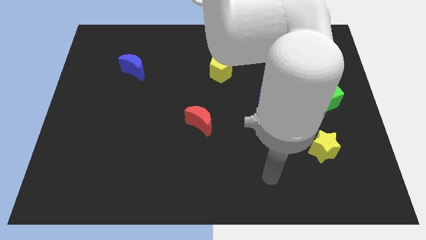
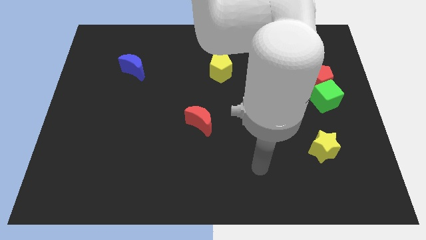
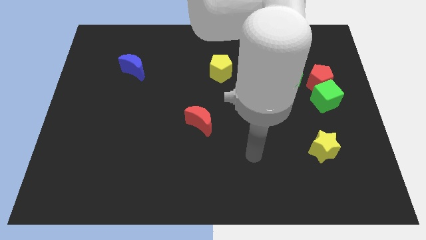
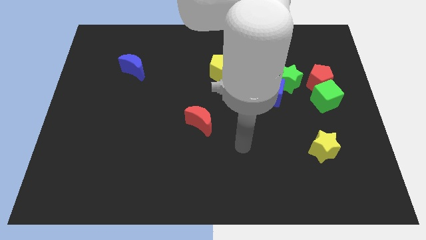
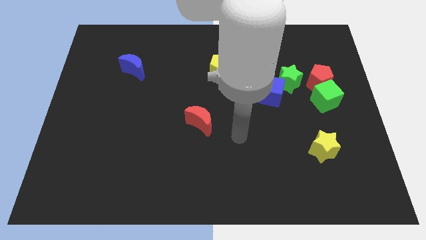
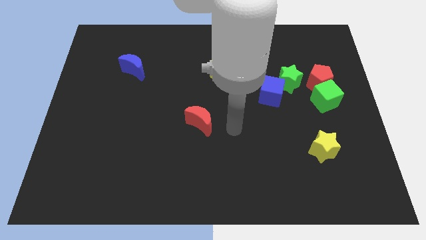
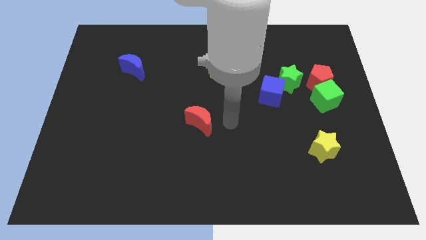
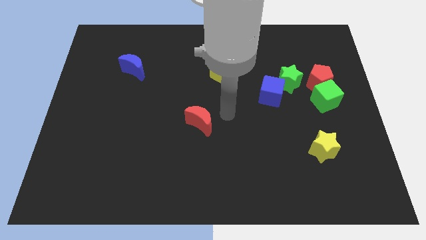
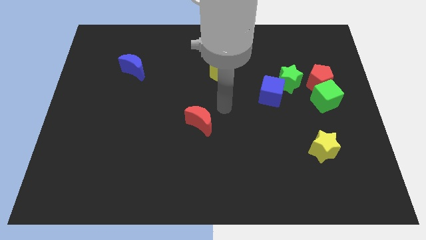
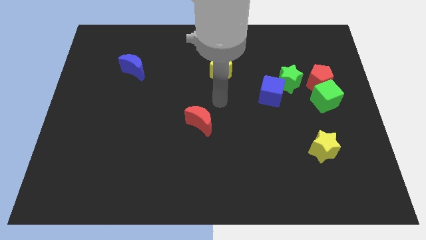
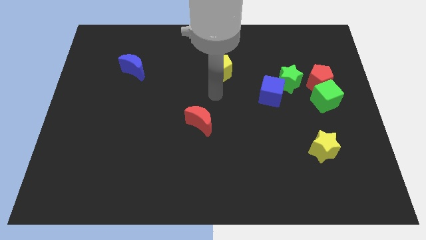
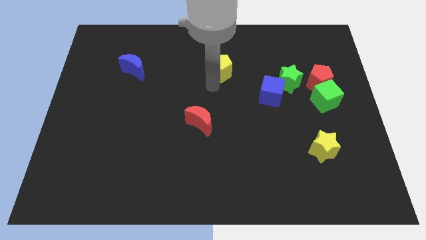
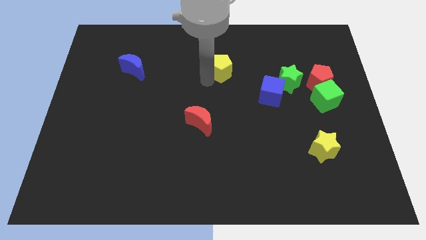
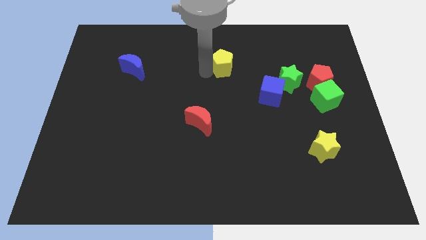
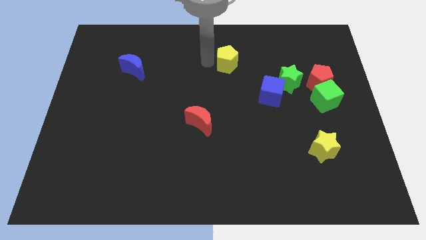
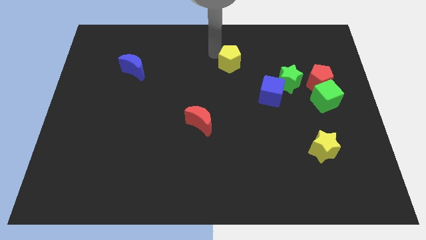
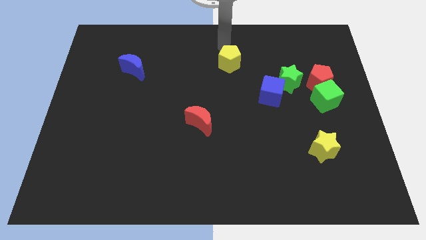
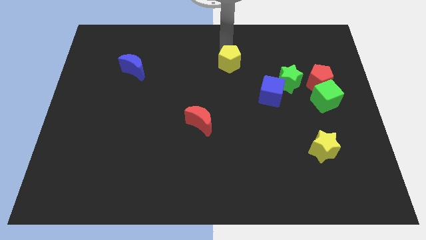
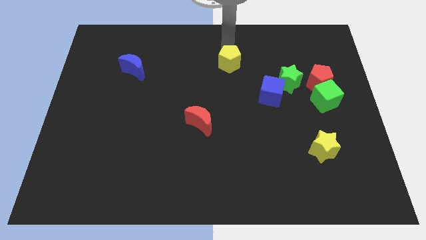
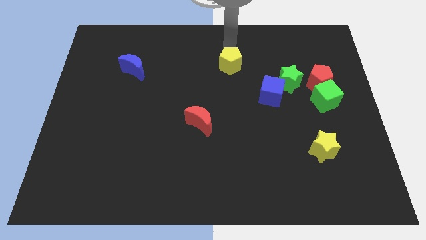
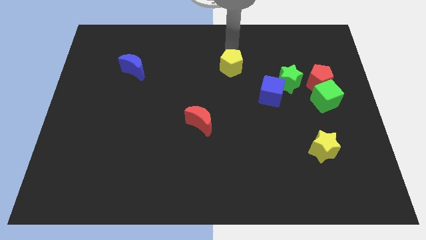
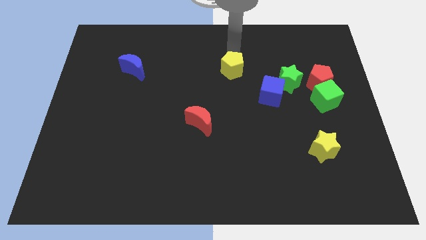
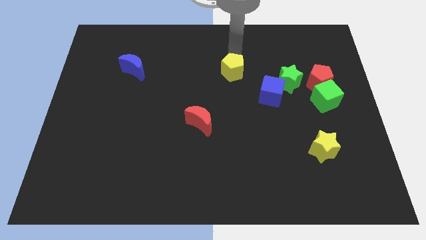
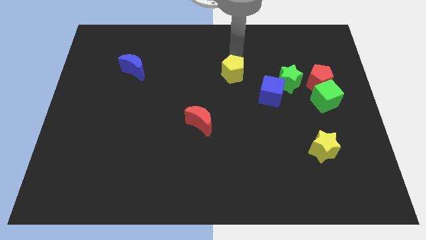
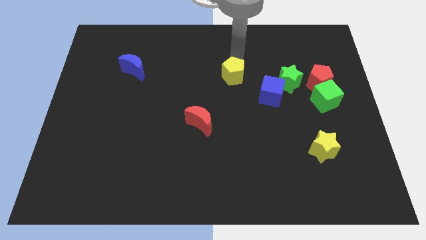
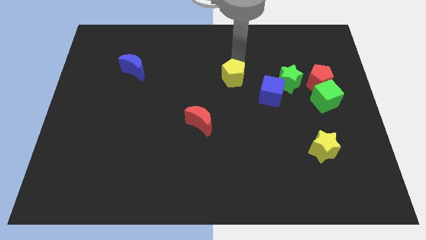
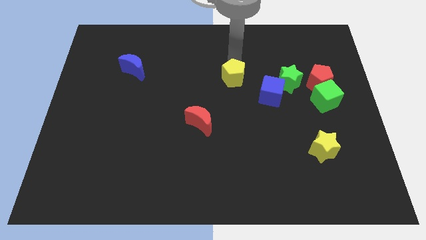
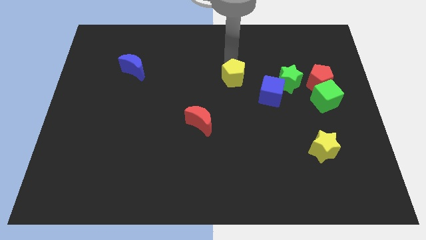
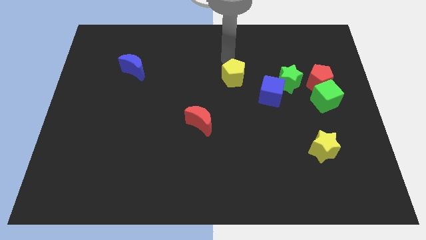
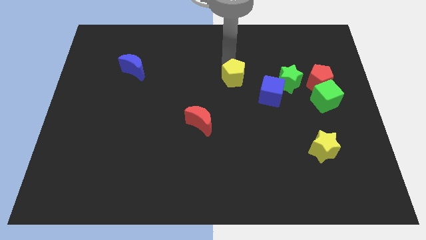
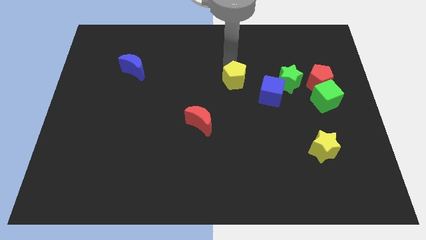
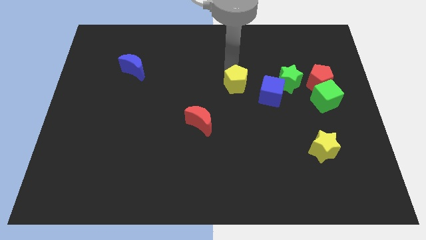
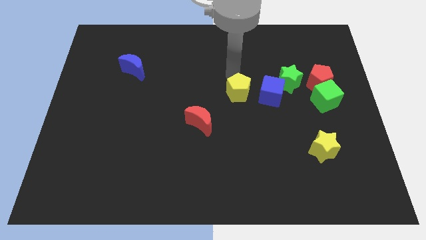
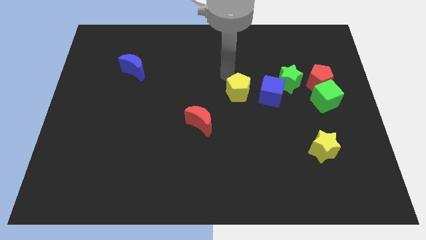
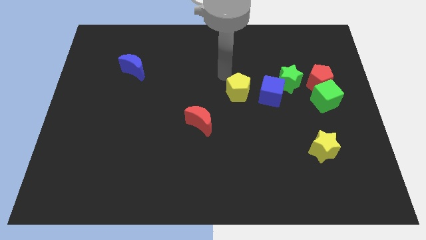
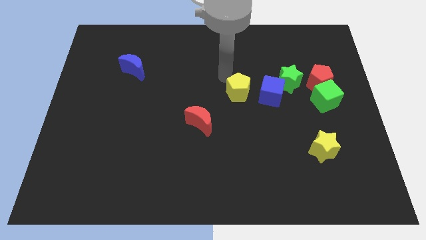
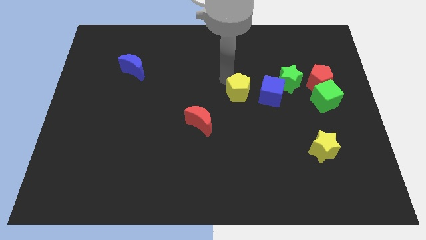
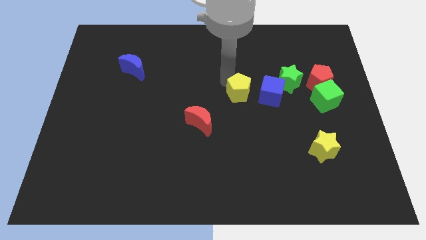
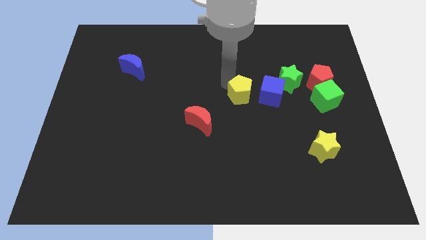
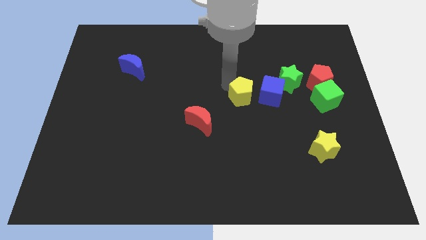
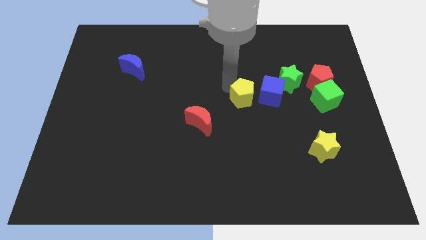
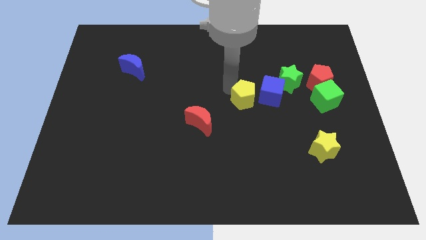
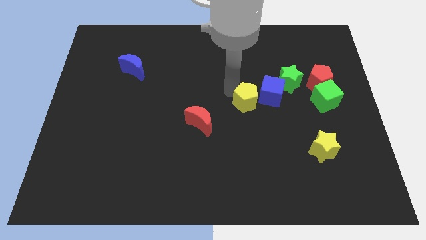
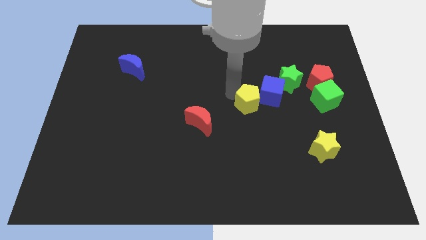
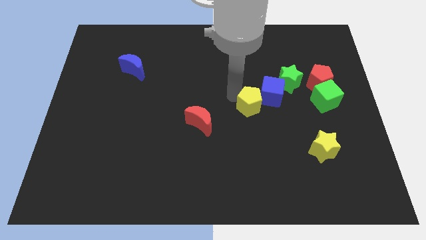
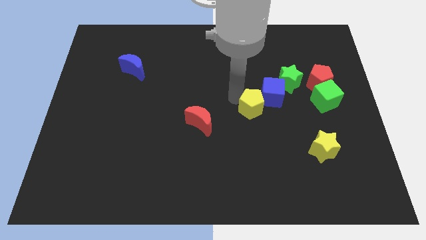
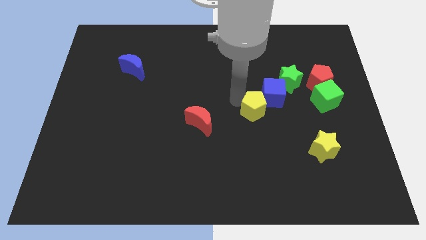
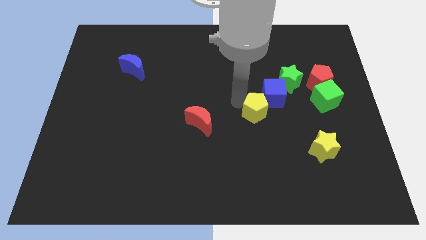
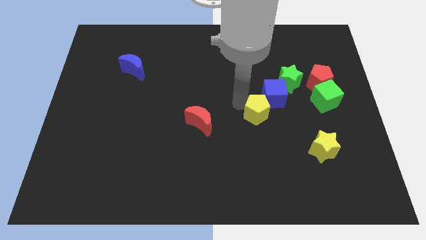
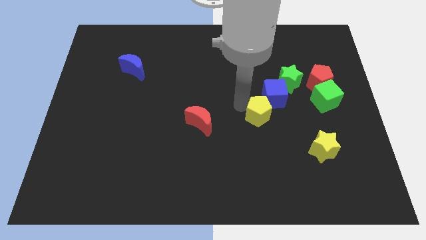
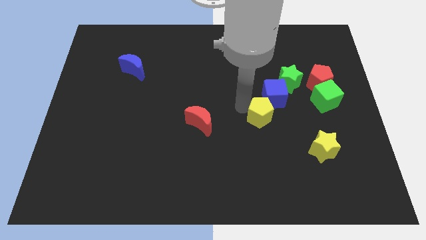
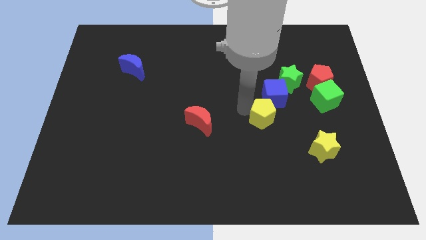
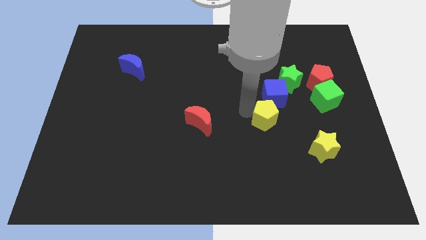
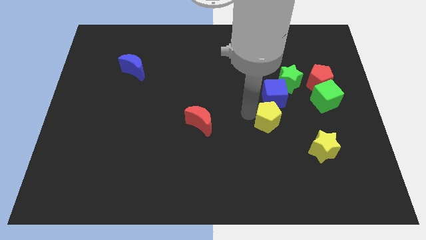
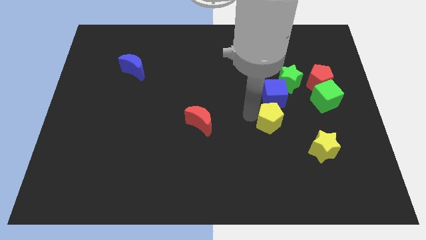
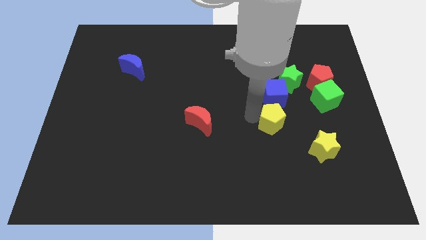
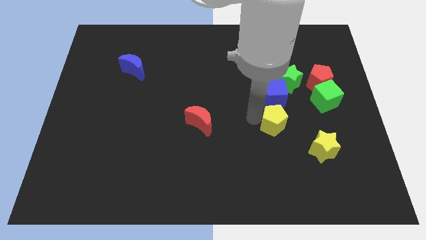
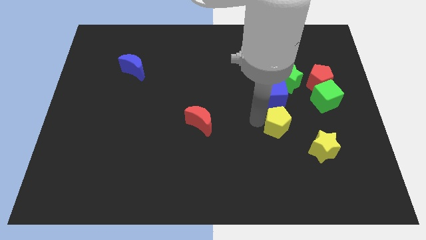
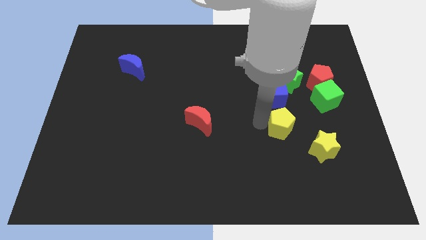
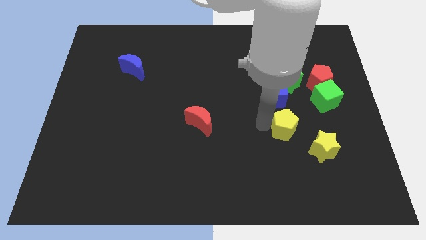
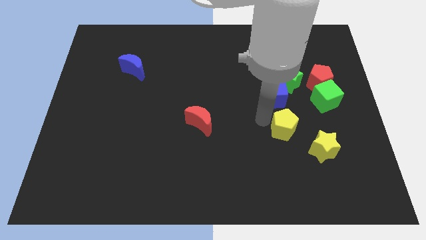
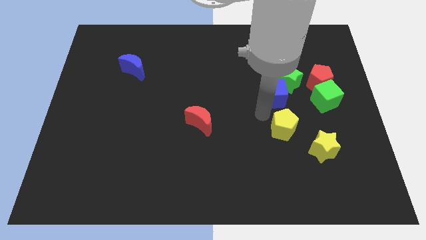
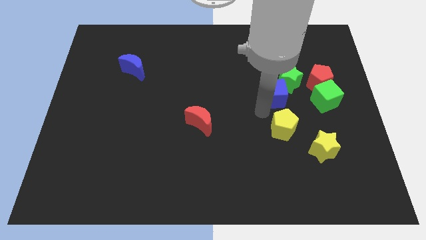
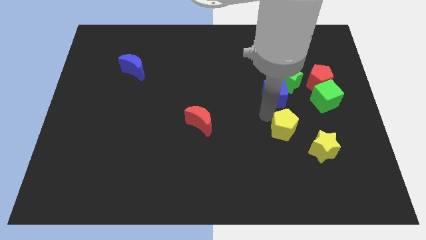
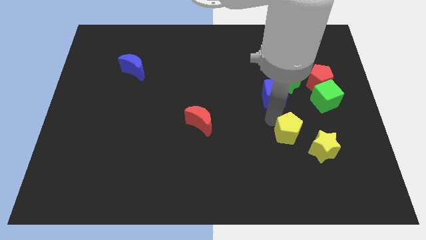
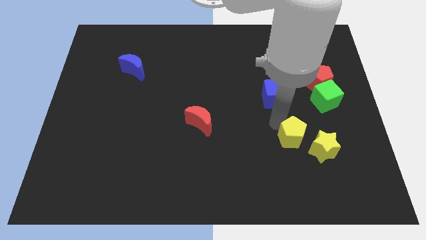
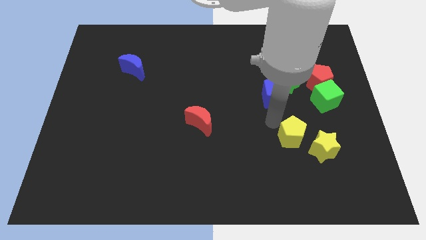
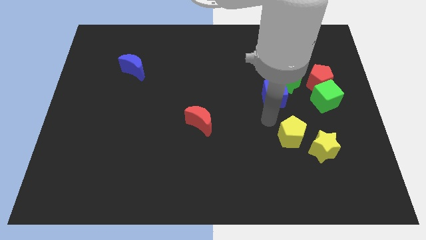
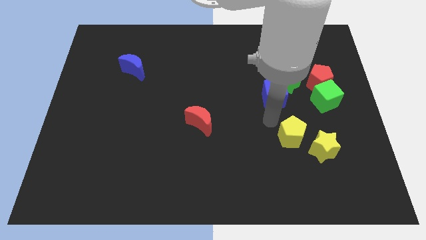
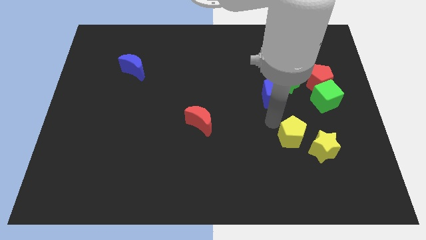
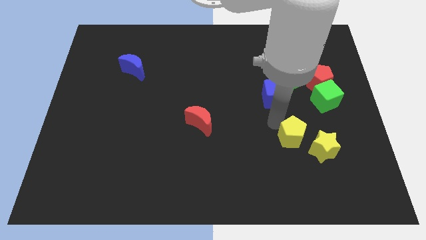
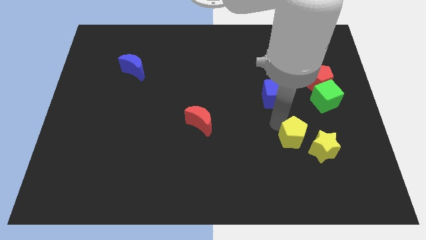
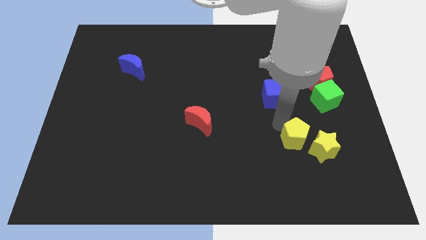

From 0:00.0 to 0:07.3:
slide the yellow pentagon towards the yellow star

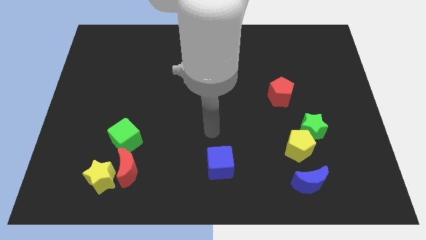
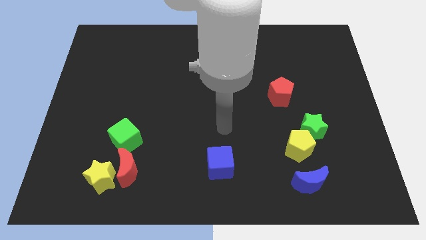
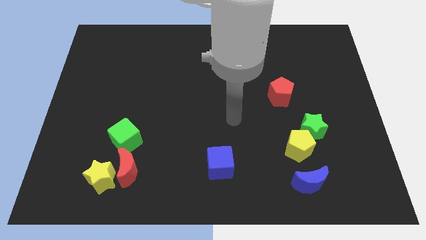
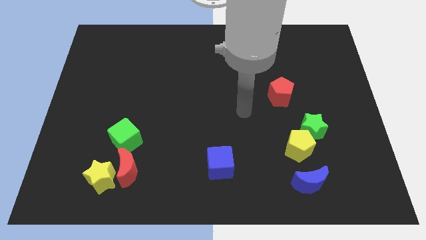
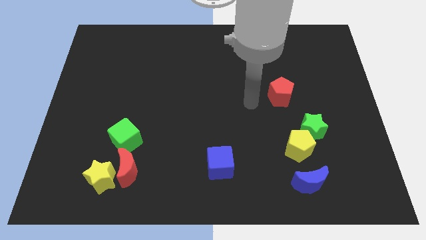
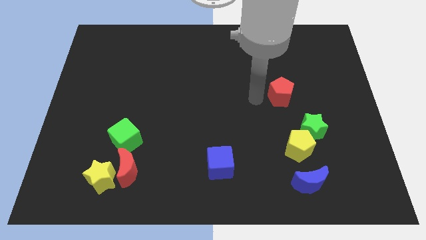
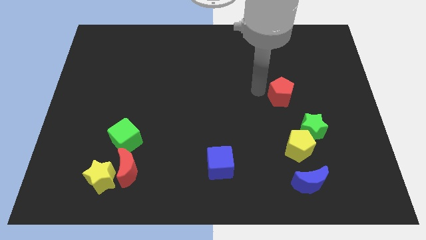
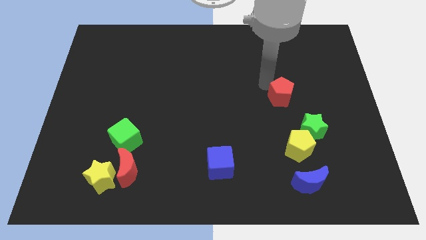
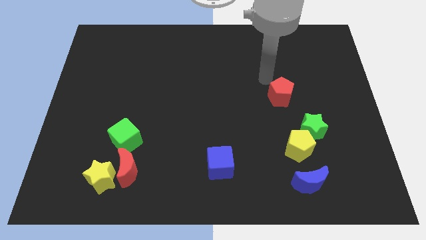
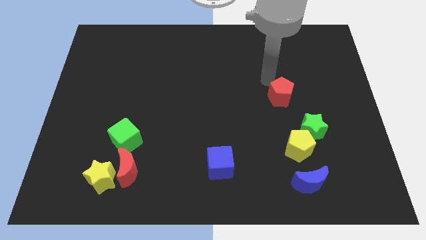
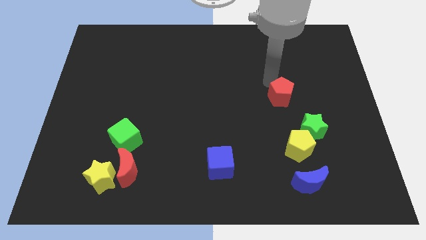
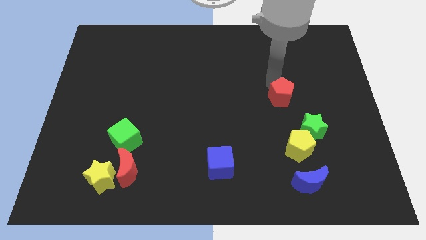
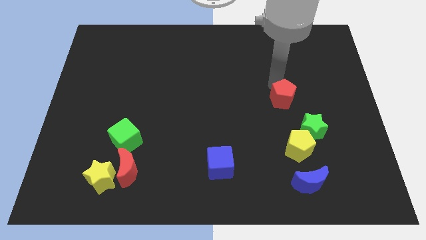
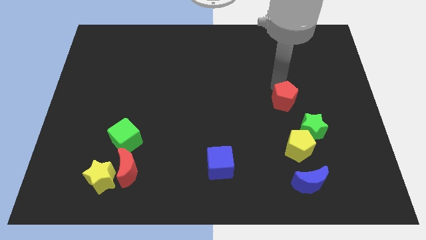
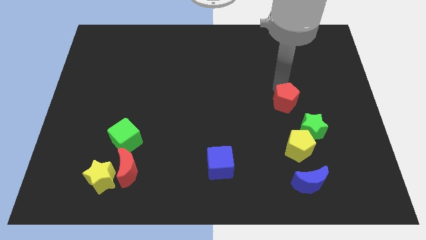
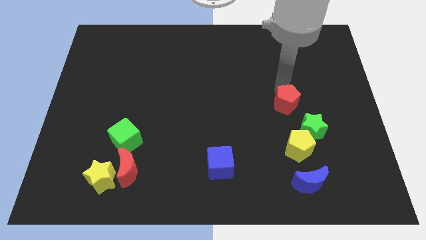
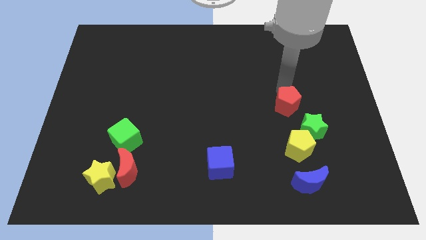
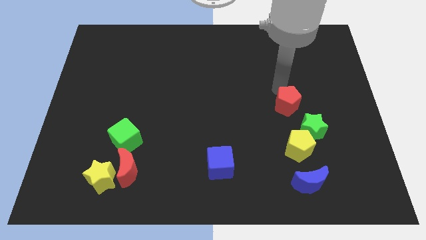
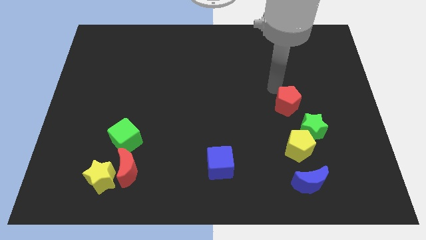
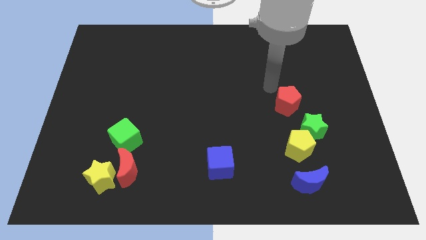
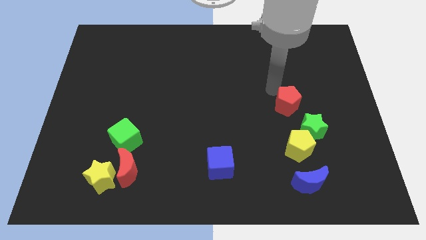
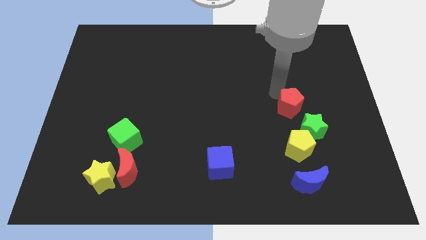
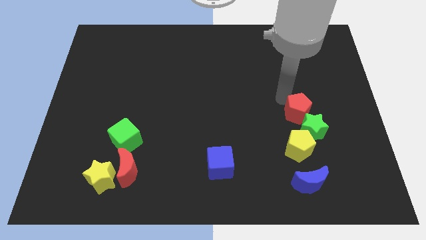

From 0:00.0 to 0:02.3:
push the red pentagon towards the green star
